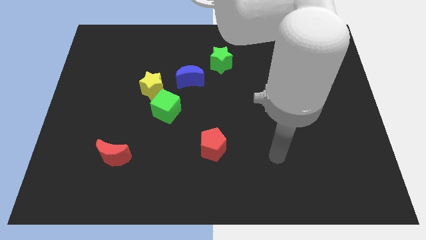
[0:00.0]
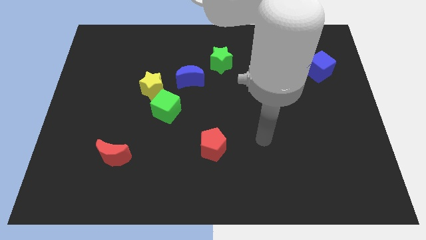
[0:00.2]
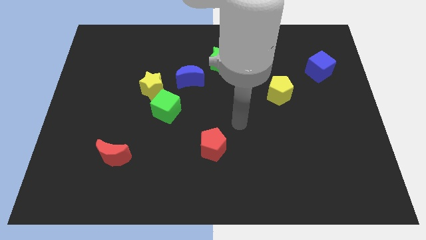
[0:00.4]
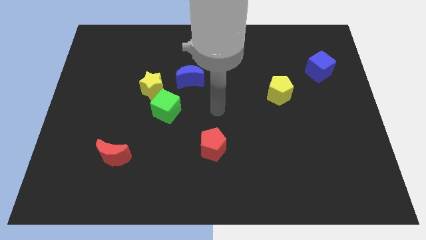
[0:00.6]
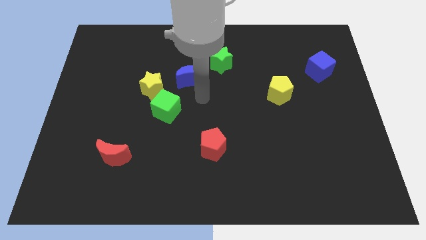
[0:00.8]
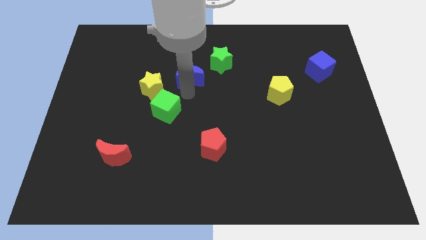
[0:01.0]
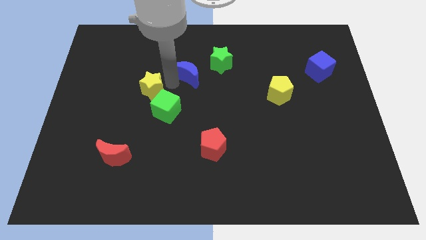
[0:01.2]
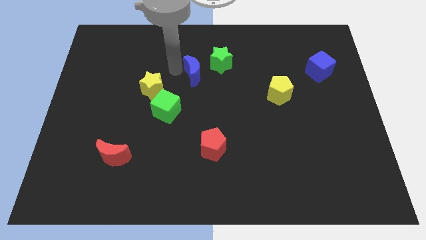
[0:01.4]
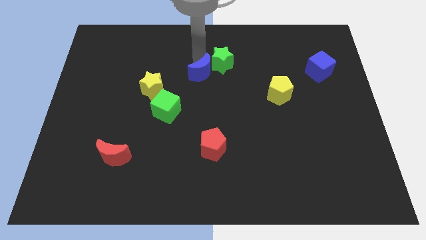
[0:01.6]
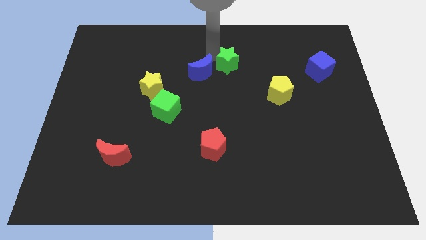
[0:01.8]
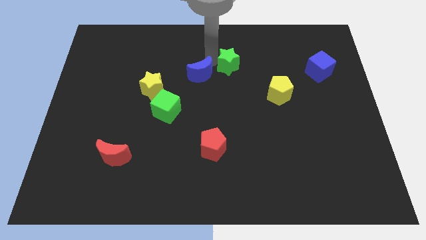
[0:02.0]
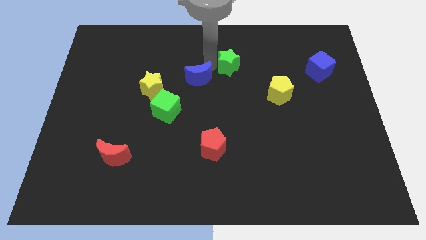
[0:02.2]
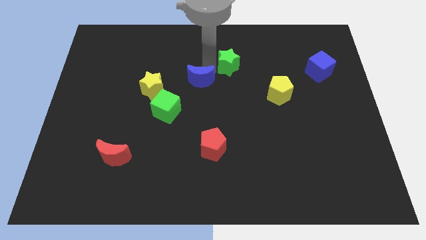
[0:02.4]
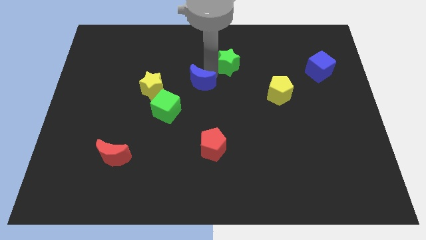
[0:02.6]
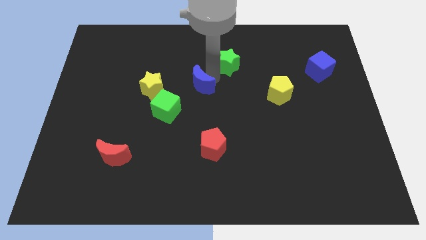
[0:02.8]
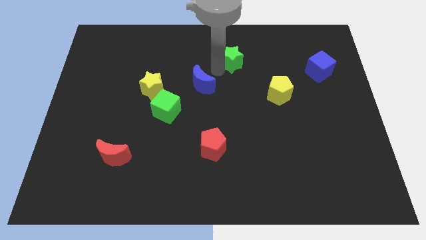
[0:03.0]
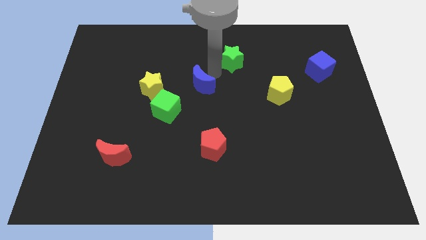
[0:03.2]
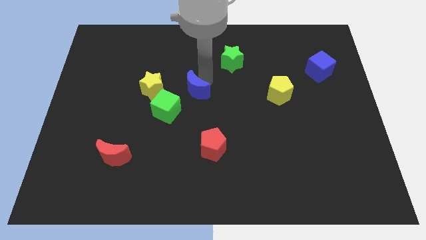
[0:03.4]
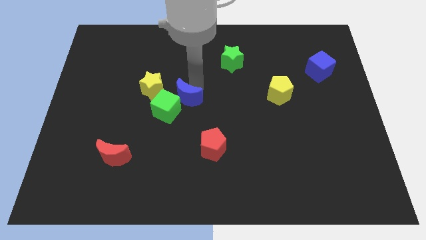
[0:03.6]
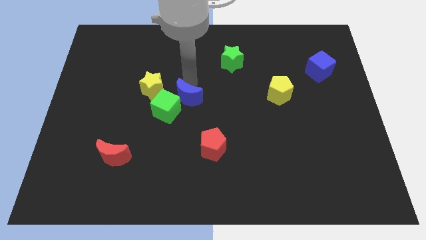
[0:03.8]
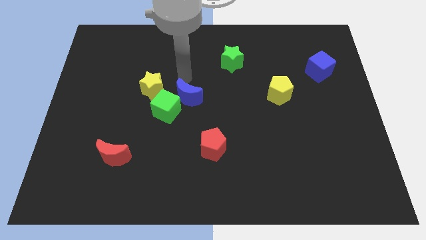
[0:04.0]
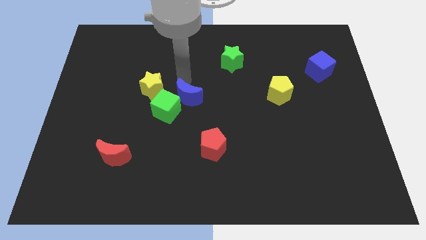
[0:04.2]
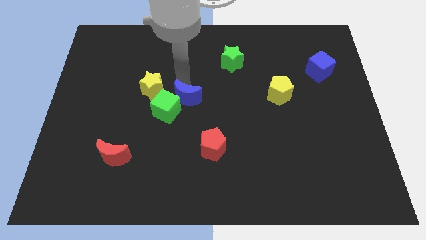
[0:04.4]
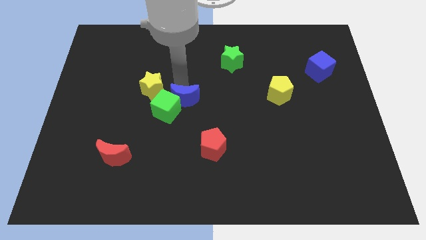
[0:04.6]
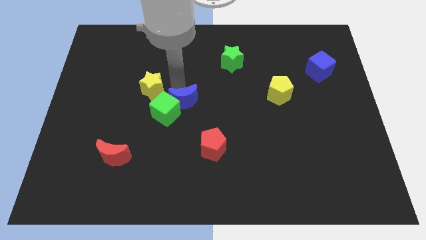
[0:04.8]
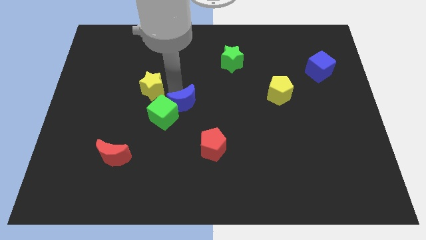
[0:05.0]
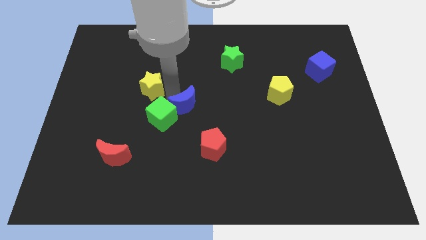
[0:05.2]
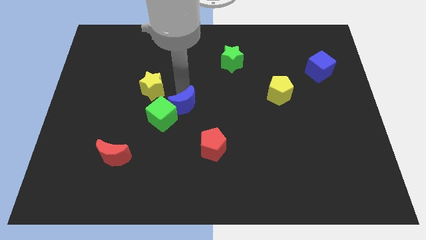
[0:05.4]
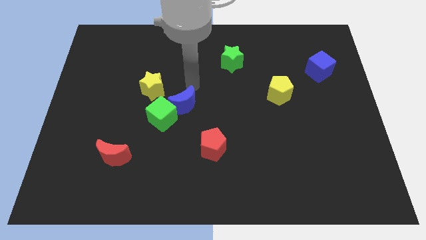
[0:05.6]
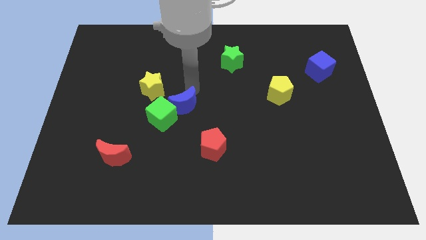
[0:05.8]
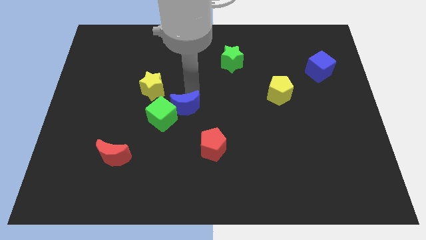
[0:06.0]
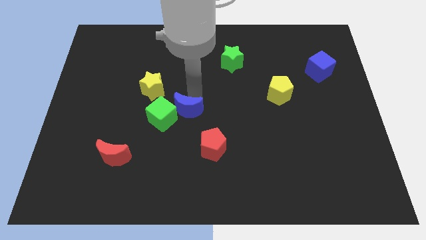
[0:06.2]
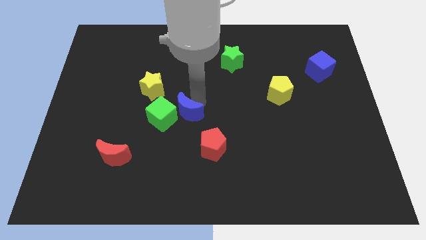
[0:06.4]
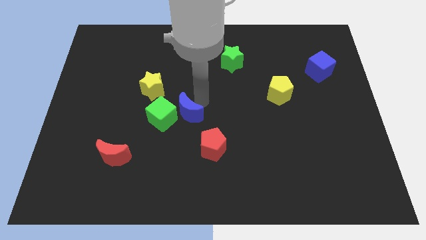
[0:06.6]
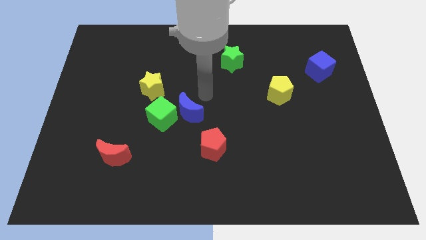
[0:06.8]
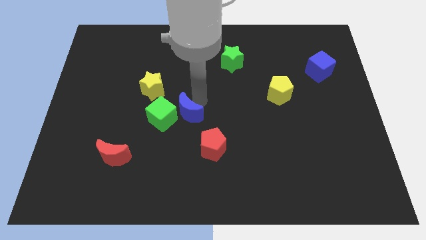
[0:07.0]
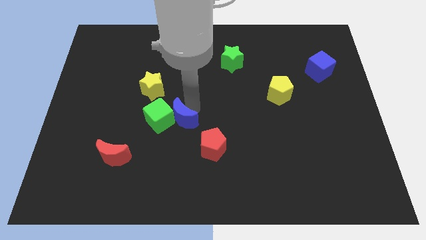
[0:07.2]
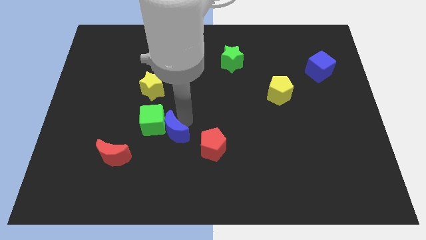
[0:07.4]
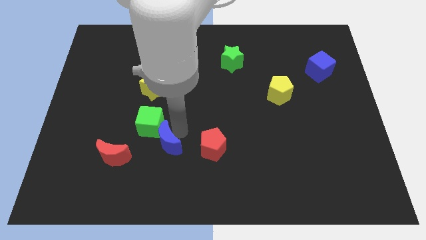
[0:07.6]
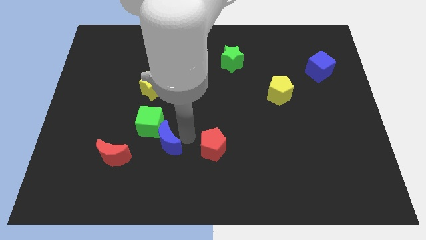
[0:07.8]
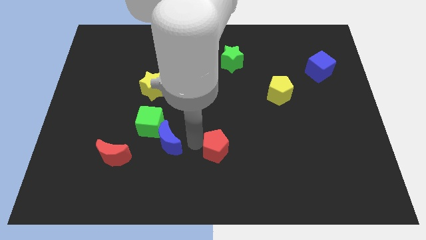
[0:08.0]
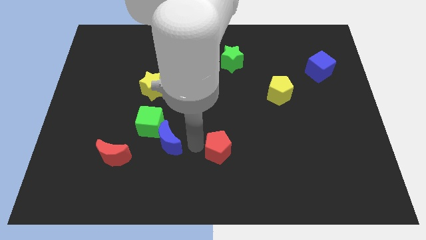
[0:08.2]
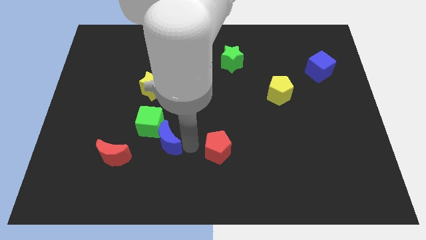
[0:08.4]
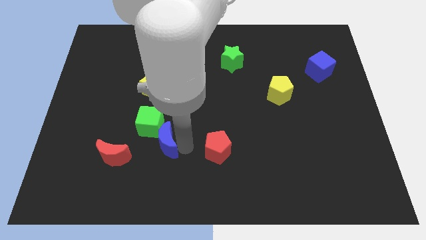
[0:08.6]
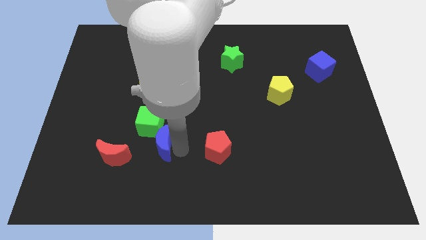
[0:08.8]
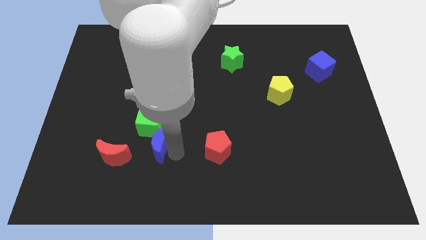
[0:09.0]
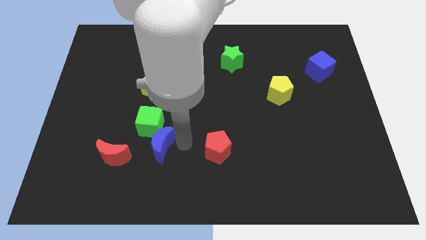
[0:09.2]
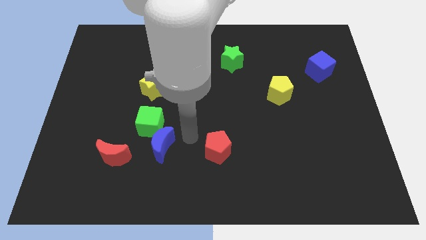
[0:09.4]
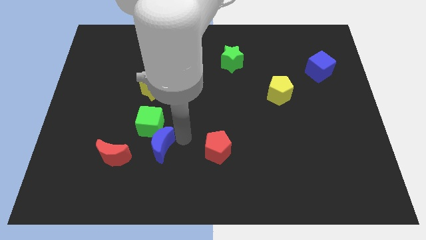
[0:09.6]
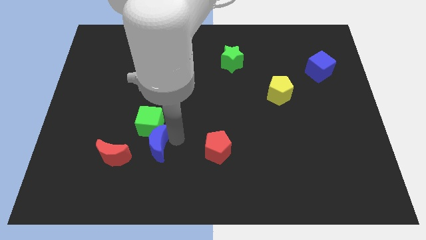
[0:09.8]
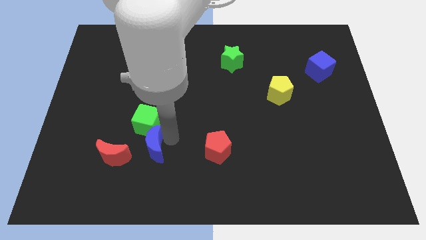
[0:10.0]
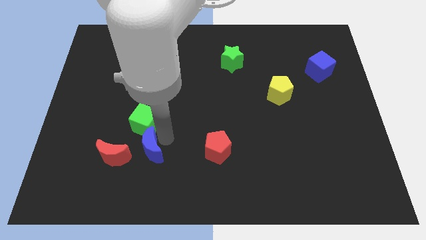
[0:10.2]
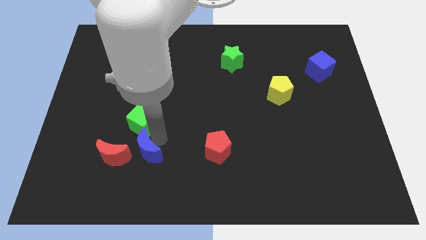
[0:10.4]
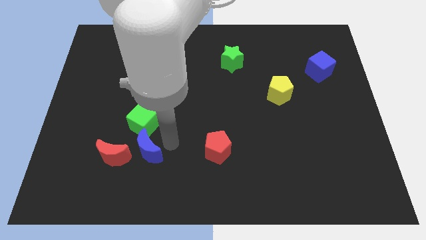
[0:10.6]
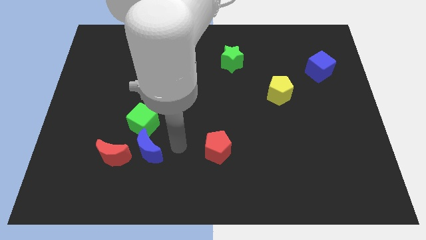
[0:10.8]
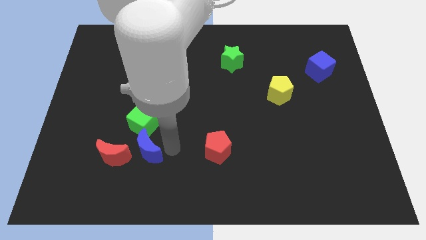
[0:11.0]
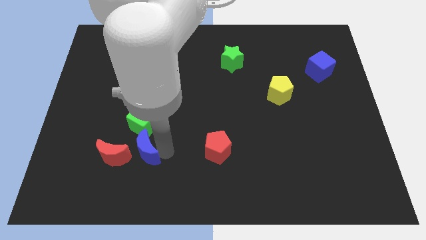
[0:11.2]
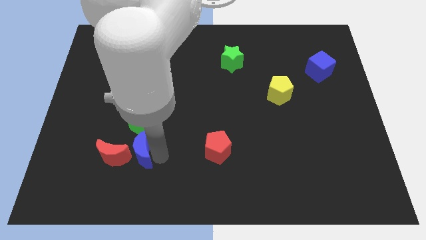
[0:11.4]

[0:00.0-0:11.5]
push the blue moon towards the red moon

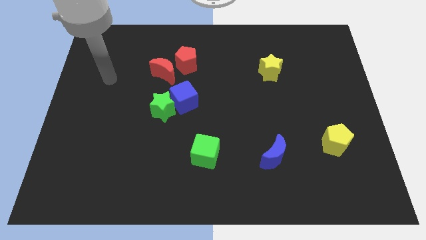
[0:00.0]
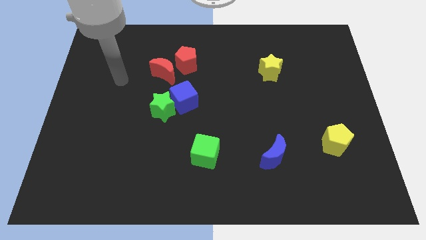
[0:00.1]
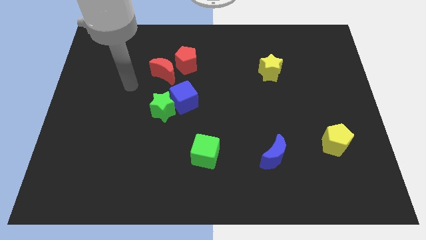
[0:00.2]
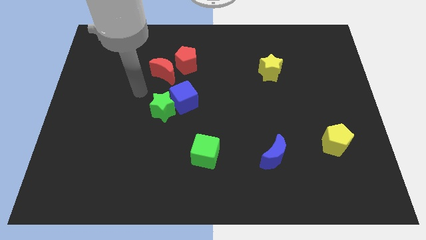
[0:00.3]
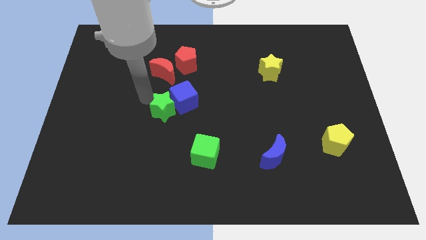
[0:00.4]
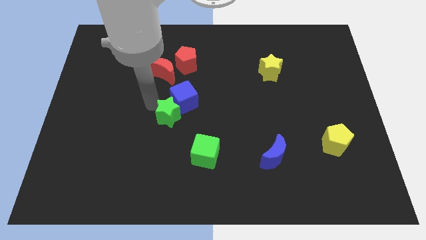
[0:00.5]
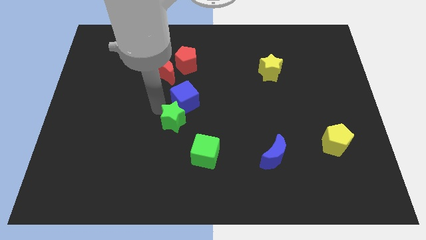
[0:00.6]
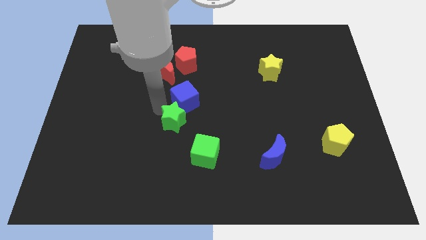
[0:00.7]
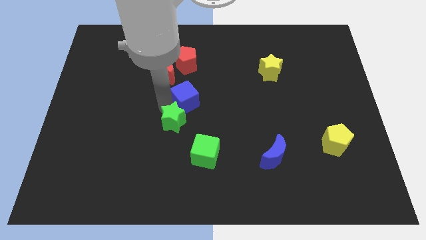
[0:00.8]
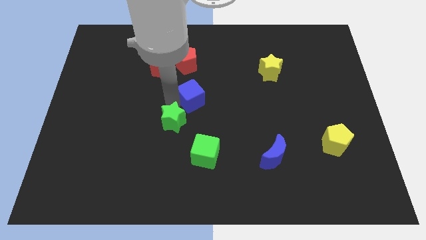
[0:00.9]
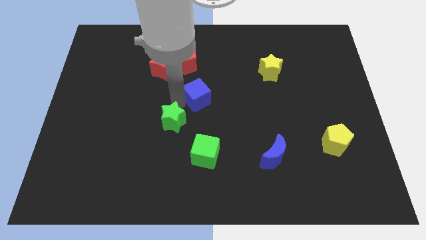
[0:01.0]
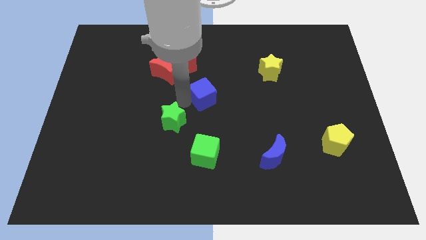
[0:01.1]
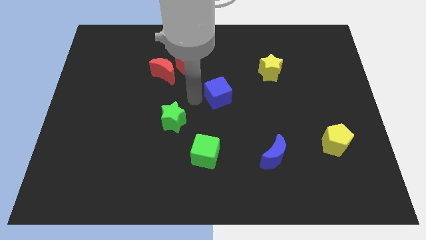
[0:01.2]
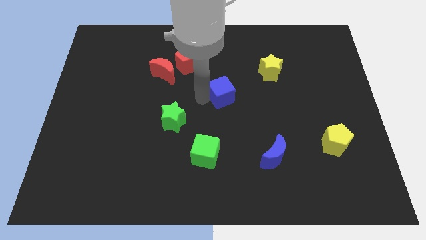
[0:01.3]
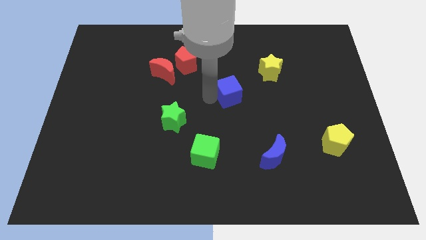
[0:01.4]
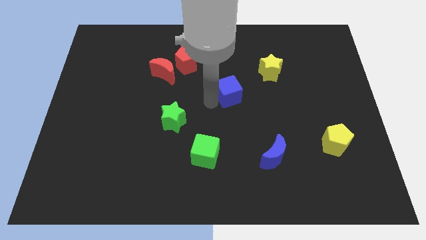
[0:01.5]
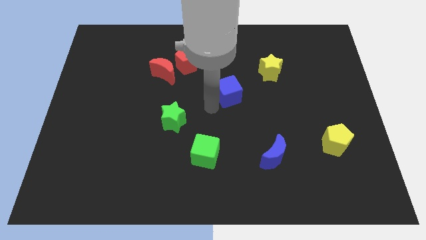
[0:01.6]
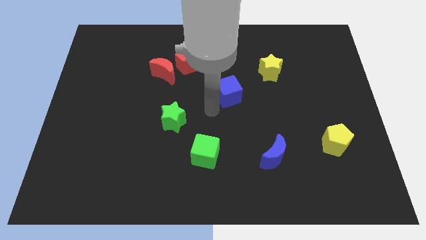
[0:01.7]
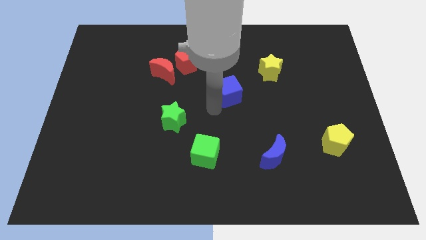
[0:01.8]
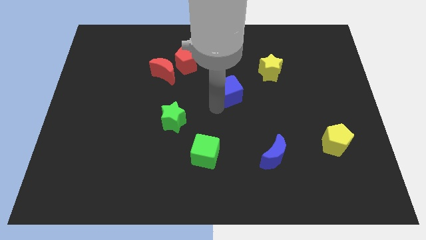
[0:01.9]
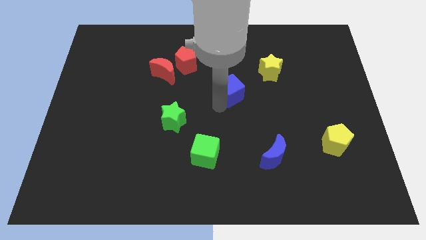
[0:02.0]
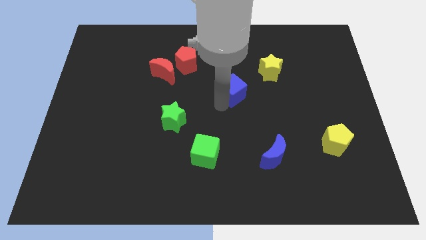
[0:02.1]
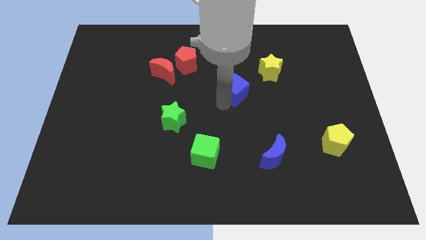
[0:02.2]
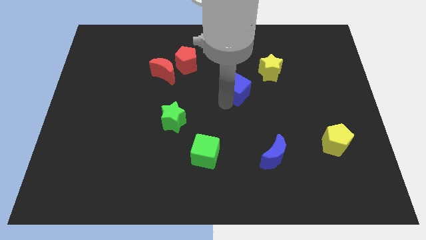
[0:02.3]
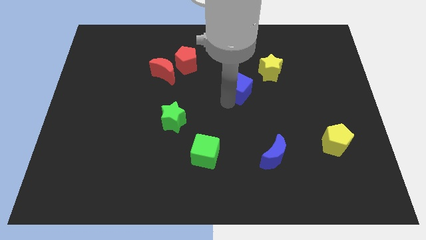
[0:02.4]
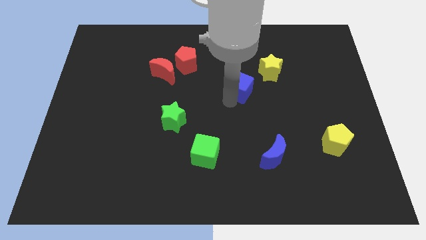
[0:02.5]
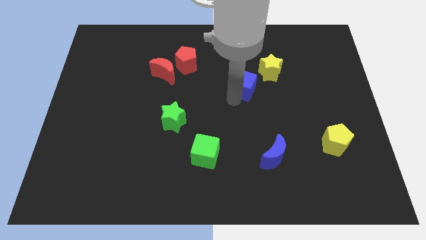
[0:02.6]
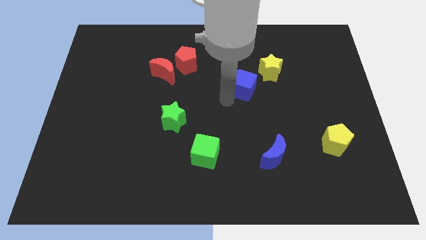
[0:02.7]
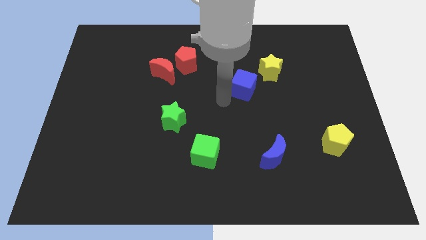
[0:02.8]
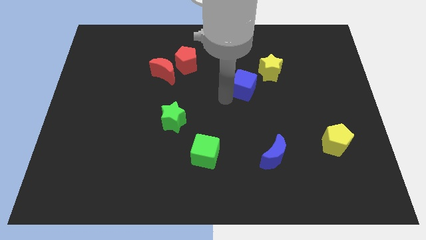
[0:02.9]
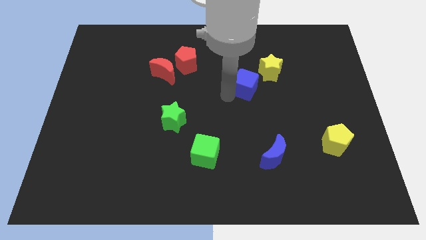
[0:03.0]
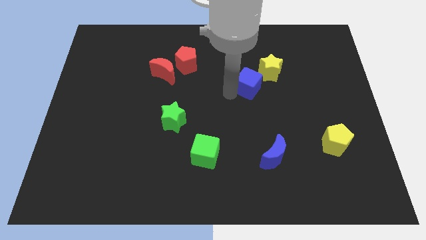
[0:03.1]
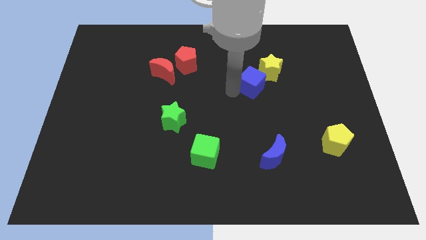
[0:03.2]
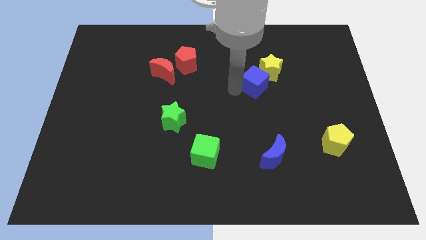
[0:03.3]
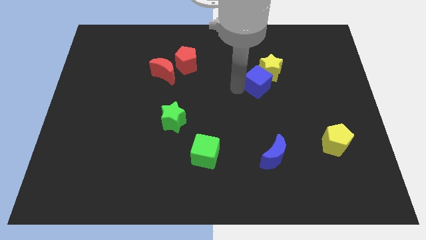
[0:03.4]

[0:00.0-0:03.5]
push the blue cube to the yellow star
